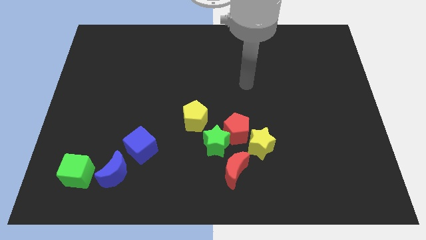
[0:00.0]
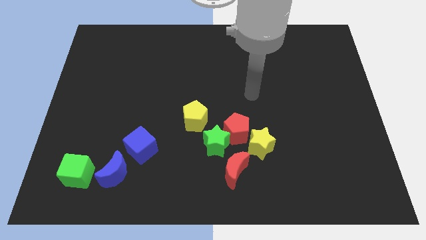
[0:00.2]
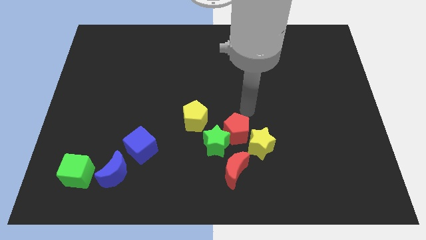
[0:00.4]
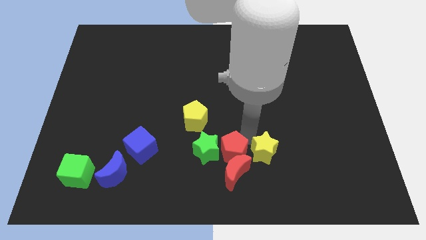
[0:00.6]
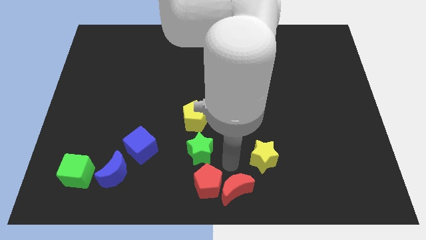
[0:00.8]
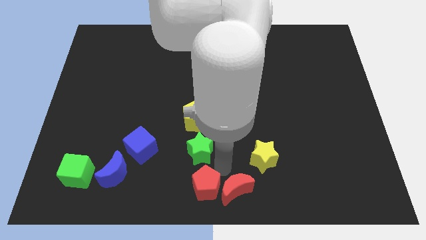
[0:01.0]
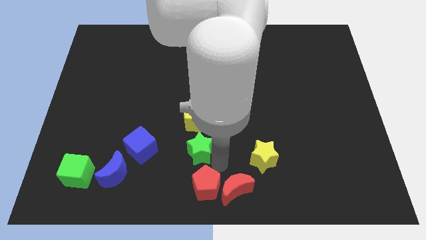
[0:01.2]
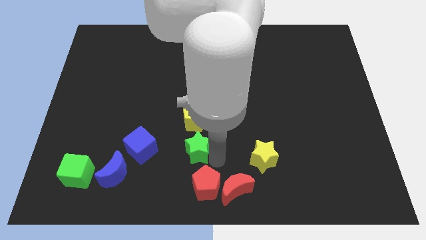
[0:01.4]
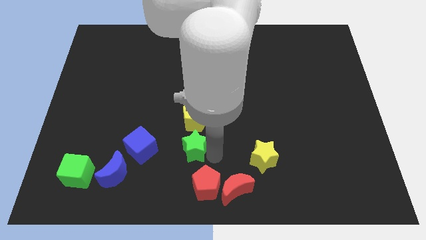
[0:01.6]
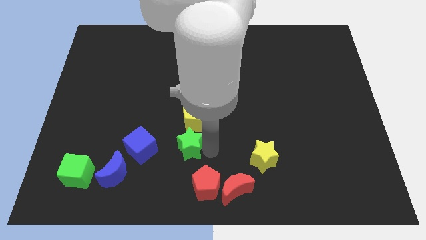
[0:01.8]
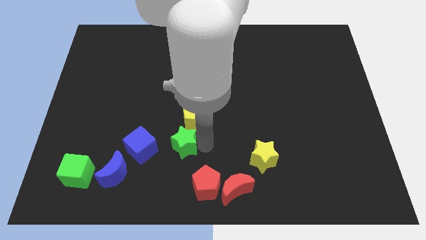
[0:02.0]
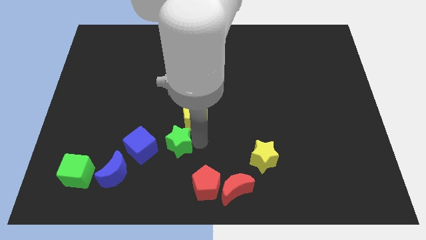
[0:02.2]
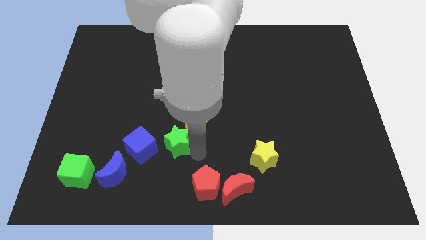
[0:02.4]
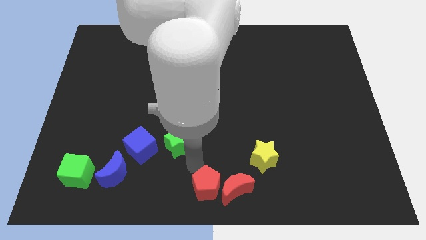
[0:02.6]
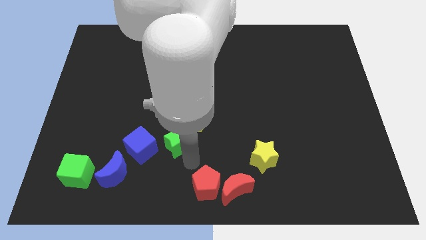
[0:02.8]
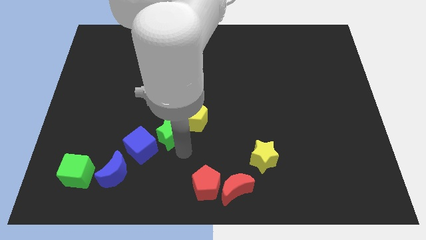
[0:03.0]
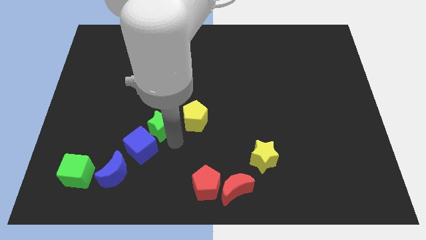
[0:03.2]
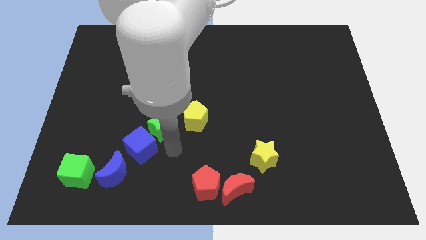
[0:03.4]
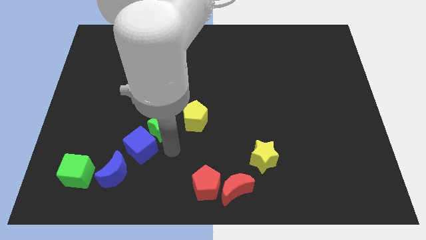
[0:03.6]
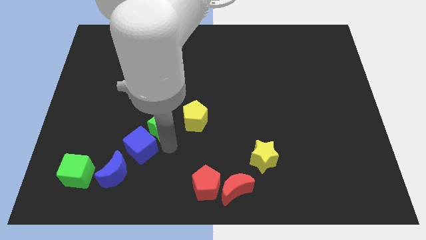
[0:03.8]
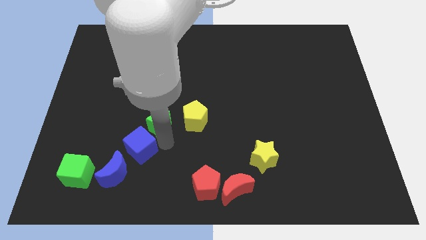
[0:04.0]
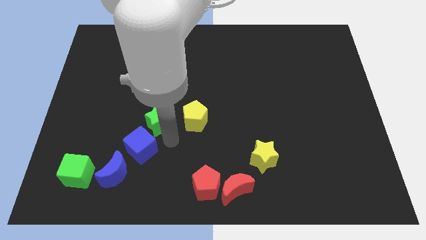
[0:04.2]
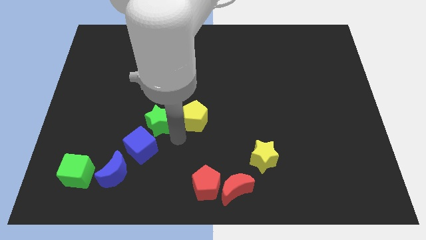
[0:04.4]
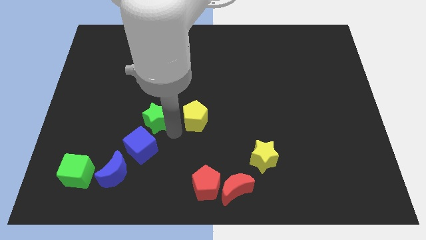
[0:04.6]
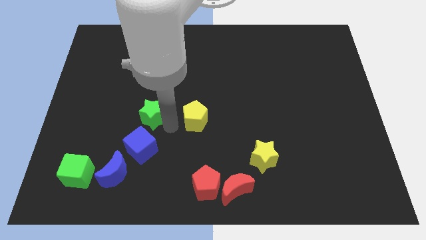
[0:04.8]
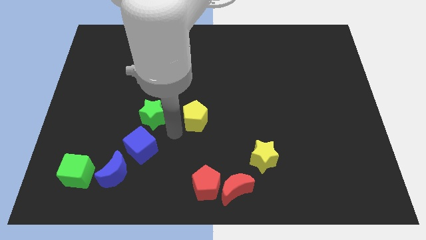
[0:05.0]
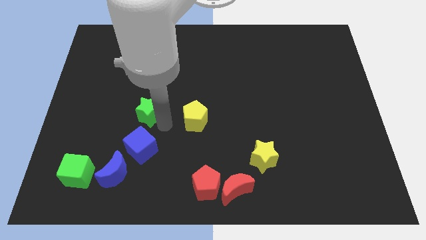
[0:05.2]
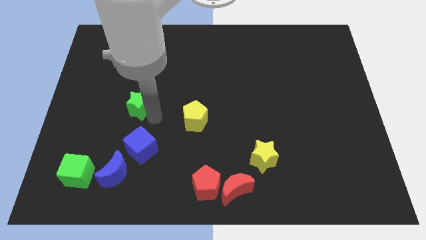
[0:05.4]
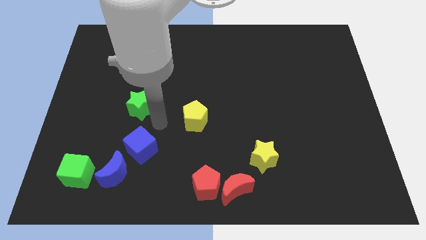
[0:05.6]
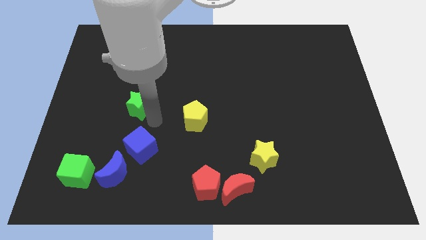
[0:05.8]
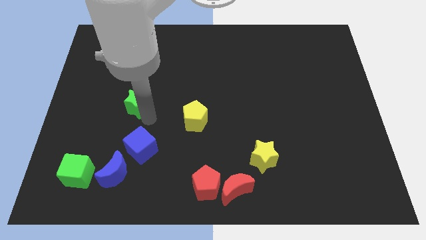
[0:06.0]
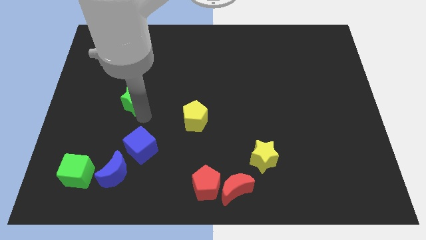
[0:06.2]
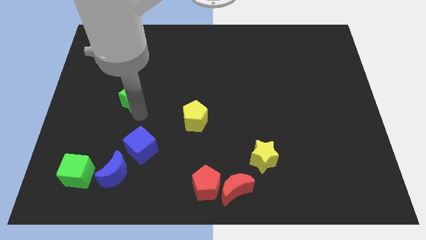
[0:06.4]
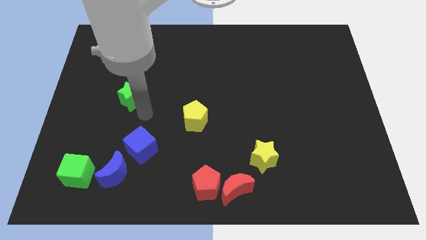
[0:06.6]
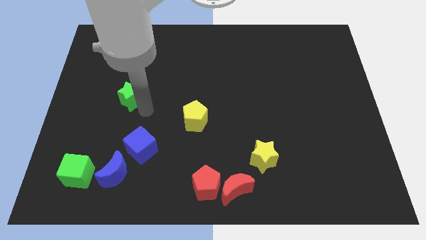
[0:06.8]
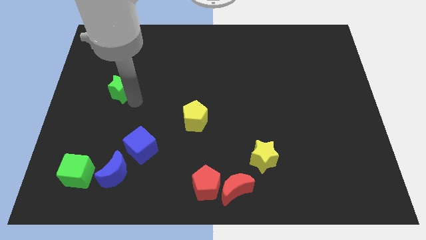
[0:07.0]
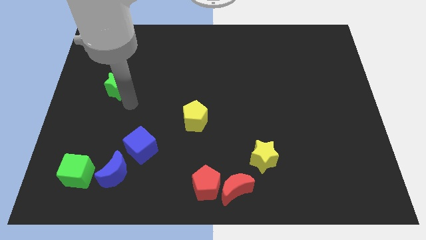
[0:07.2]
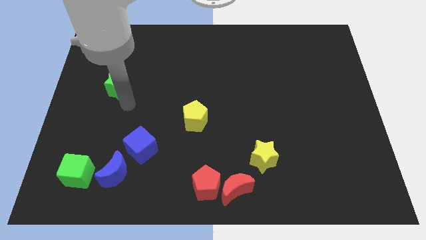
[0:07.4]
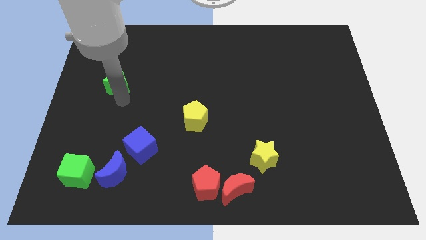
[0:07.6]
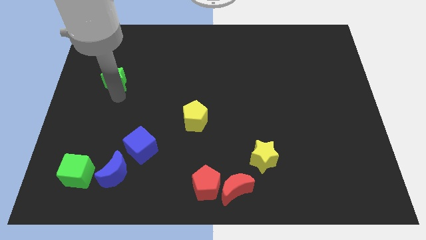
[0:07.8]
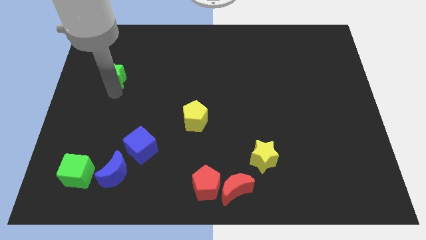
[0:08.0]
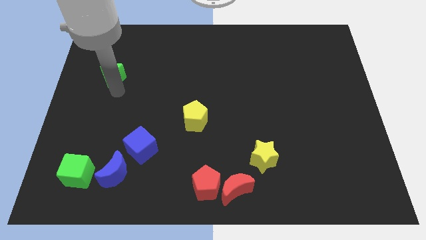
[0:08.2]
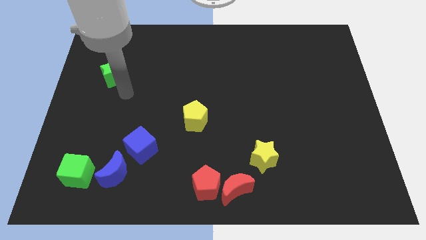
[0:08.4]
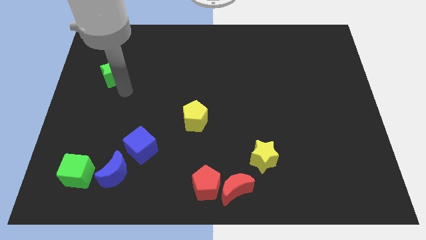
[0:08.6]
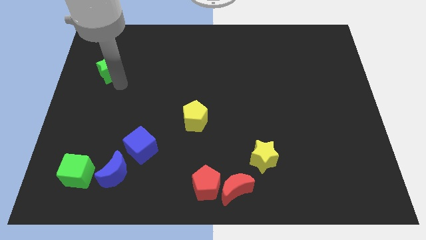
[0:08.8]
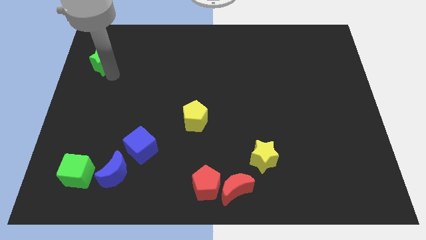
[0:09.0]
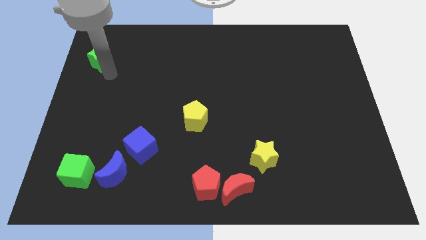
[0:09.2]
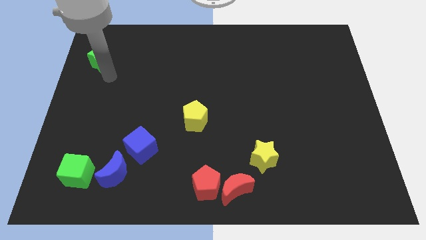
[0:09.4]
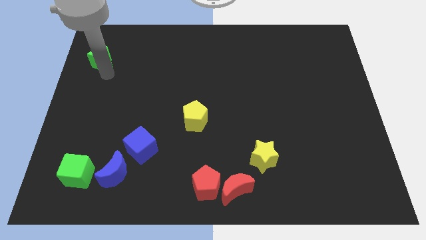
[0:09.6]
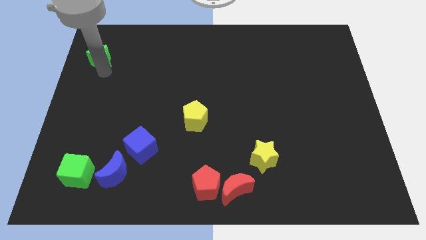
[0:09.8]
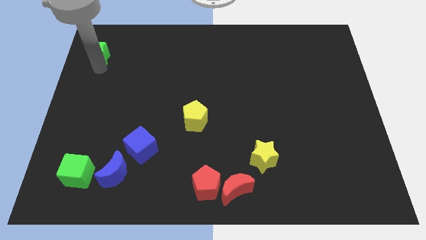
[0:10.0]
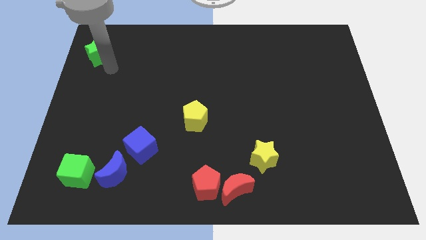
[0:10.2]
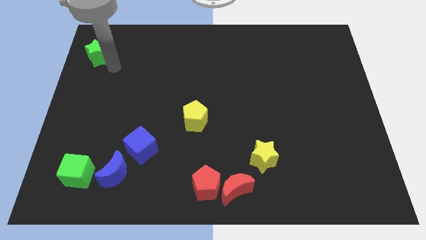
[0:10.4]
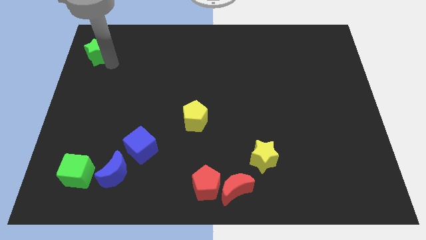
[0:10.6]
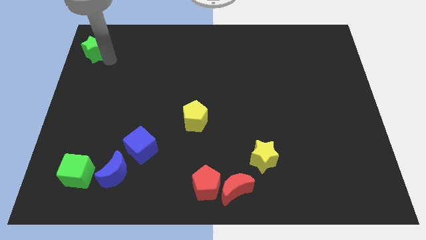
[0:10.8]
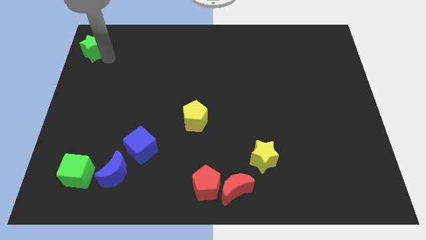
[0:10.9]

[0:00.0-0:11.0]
put the green star to the upper left corner

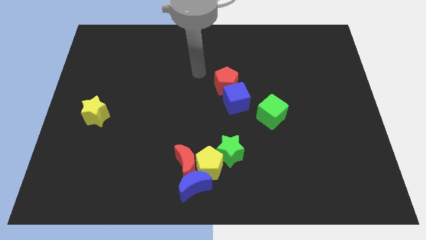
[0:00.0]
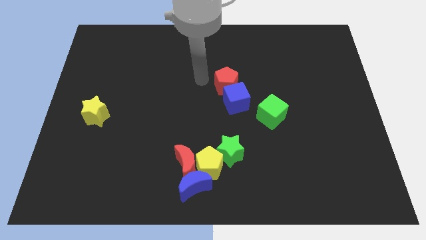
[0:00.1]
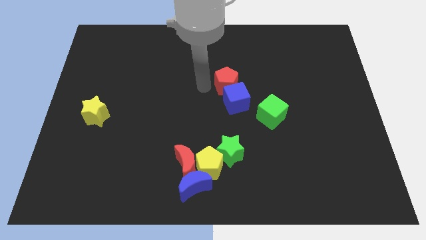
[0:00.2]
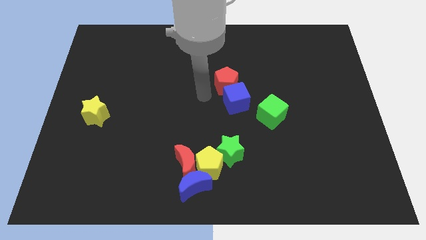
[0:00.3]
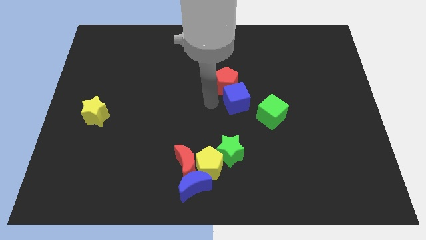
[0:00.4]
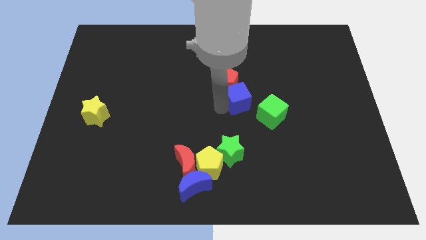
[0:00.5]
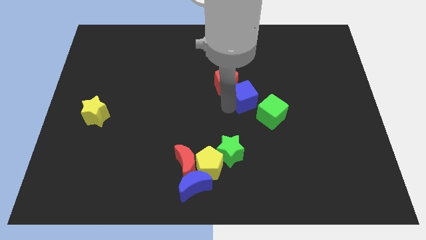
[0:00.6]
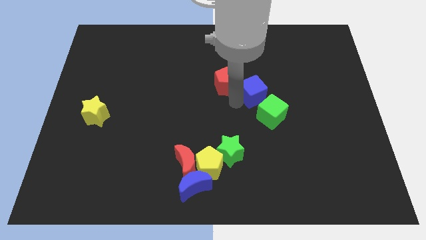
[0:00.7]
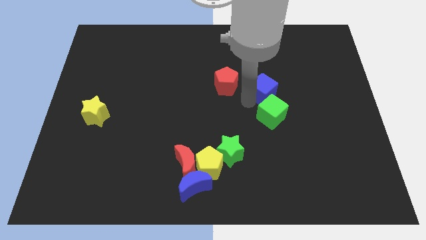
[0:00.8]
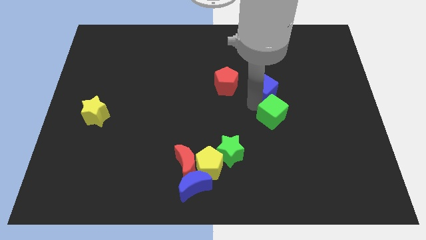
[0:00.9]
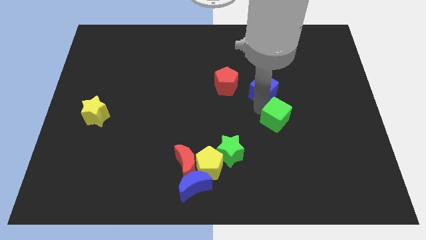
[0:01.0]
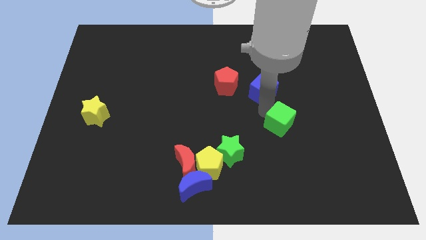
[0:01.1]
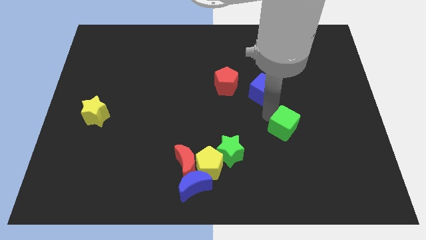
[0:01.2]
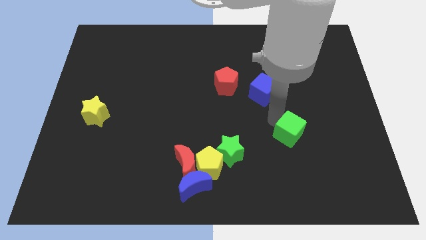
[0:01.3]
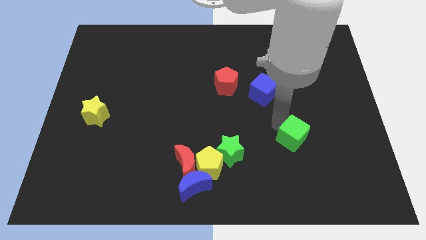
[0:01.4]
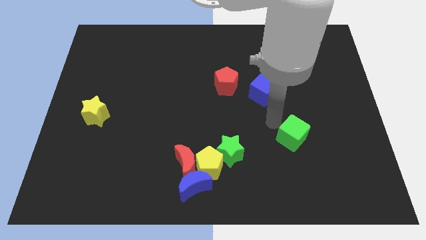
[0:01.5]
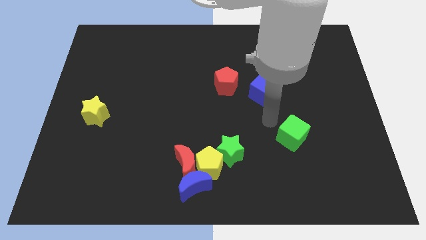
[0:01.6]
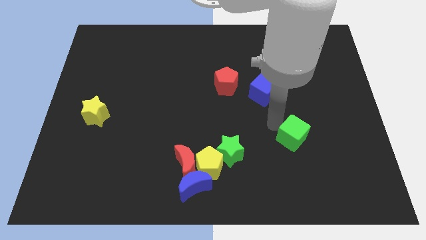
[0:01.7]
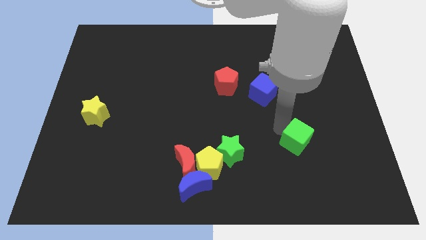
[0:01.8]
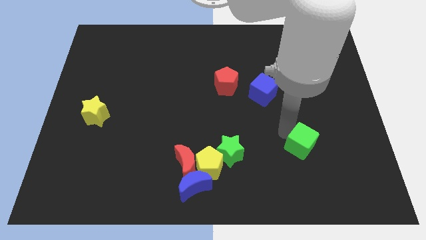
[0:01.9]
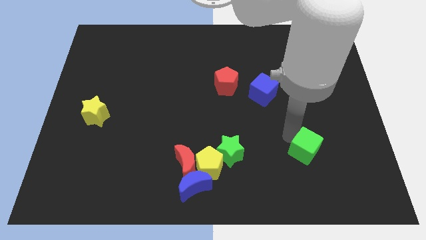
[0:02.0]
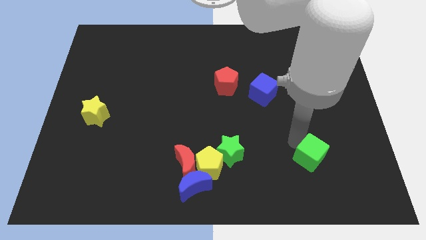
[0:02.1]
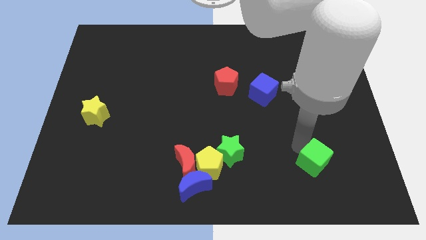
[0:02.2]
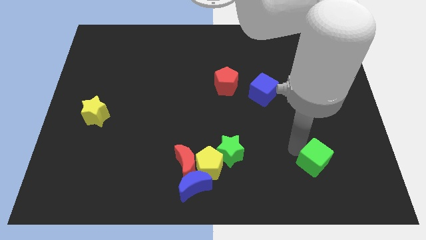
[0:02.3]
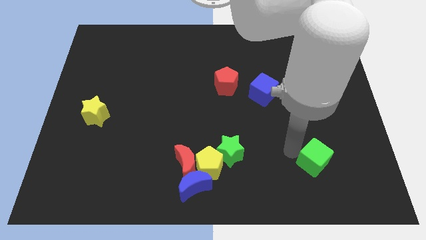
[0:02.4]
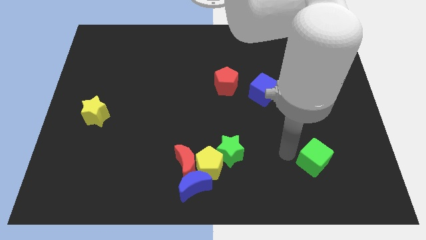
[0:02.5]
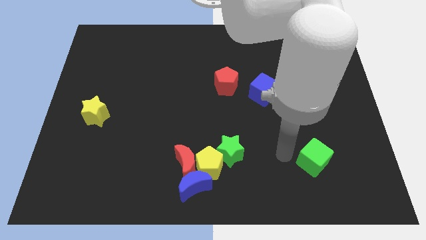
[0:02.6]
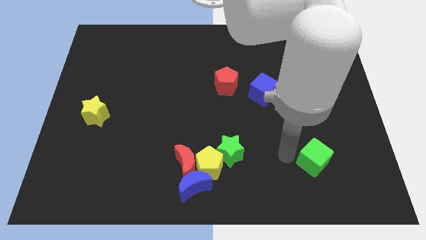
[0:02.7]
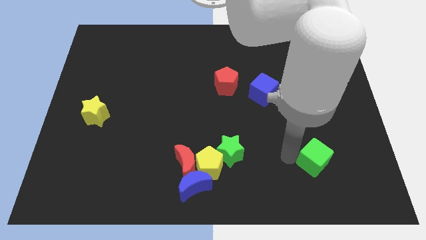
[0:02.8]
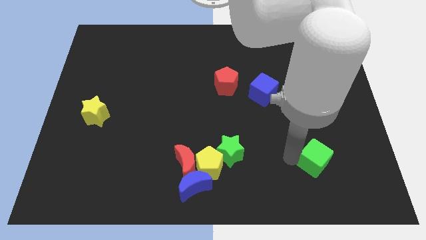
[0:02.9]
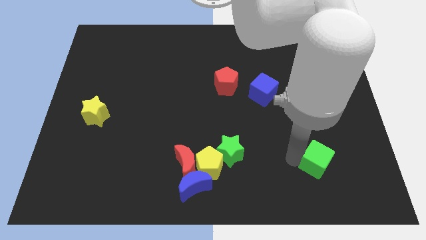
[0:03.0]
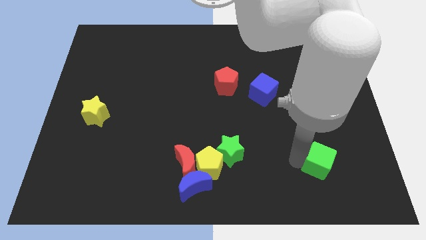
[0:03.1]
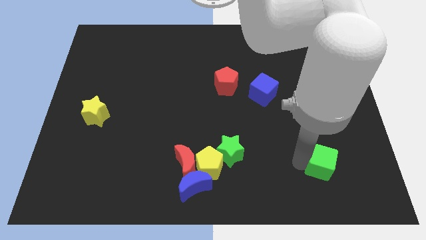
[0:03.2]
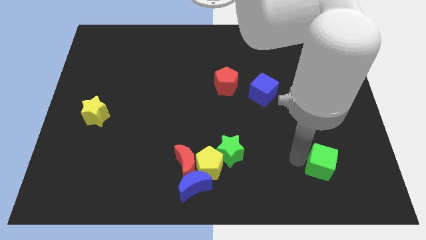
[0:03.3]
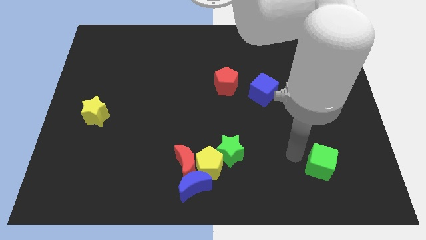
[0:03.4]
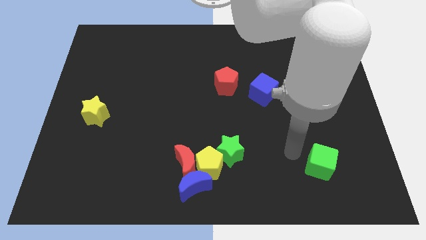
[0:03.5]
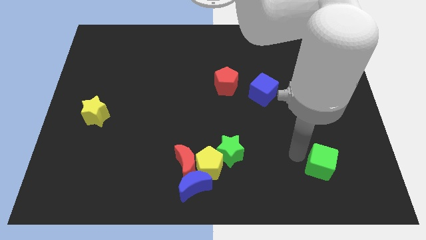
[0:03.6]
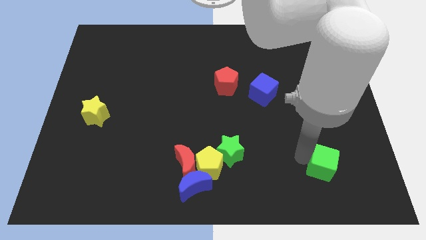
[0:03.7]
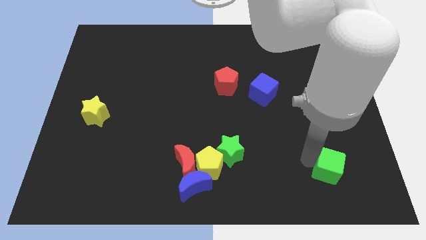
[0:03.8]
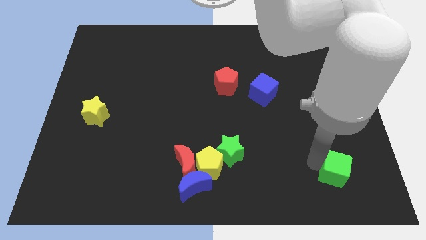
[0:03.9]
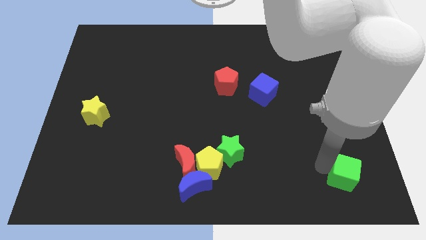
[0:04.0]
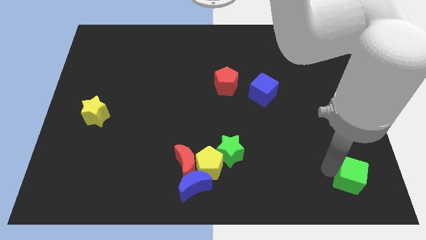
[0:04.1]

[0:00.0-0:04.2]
slide the green cube to the bottom right
